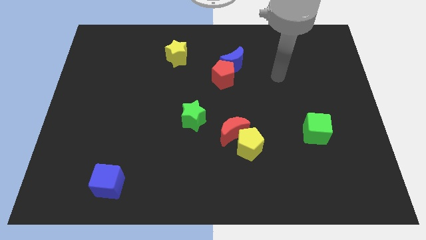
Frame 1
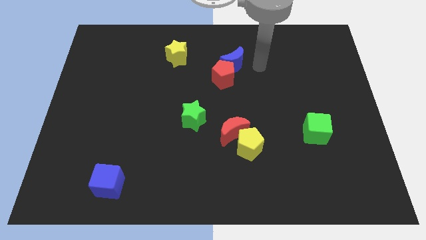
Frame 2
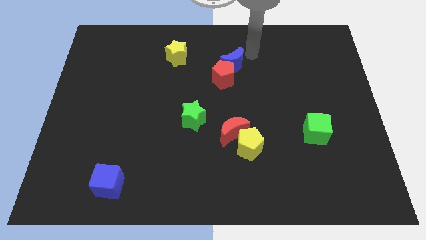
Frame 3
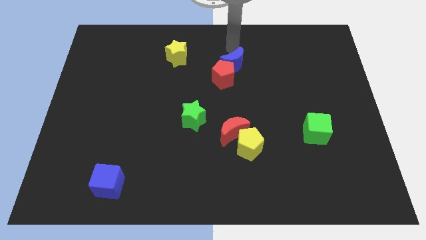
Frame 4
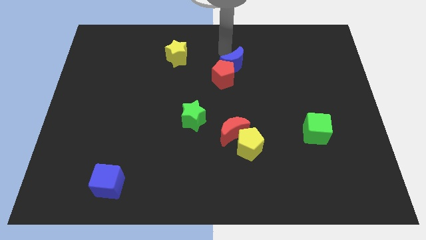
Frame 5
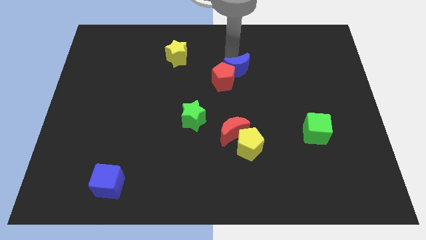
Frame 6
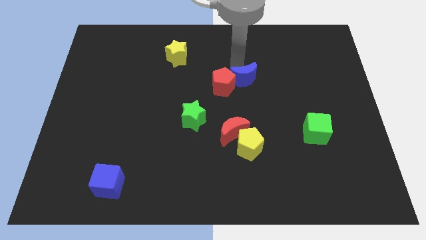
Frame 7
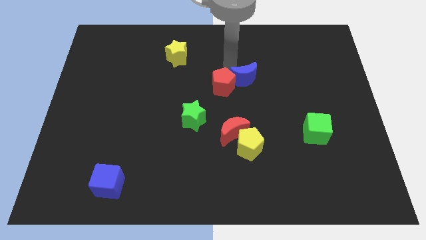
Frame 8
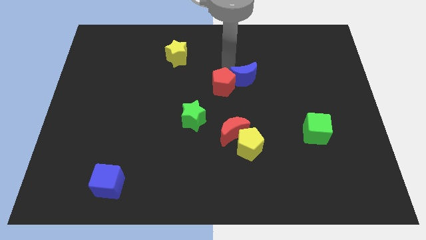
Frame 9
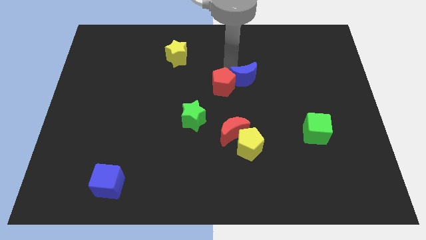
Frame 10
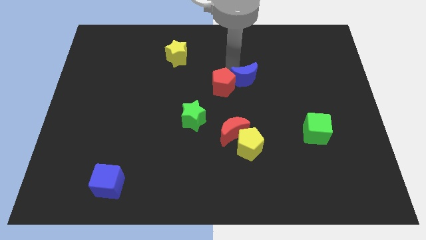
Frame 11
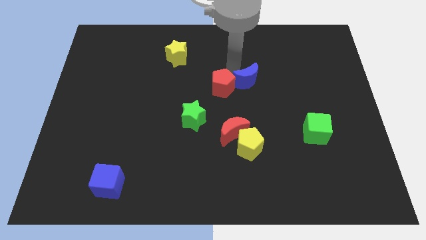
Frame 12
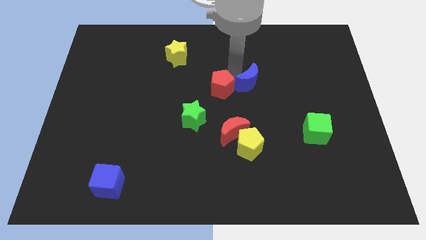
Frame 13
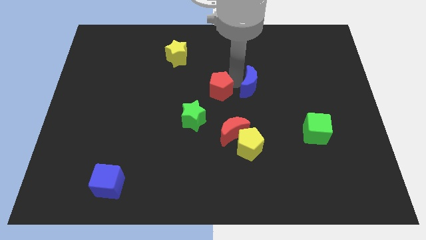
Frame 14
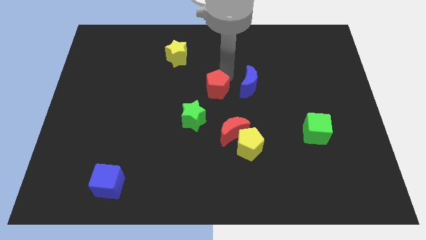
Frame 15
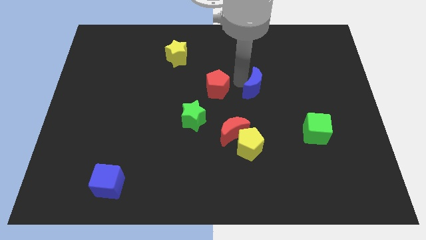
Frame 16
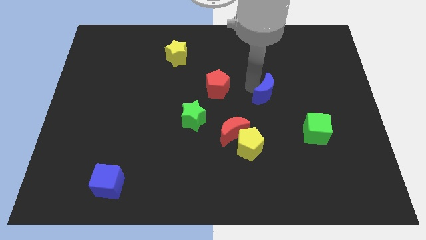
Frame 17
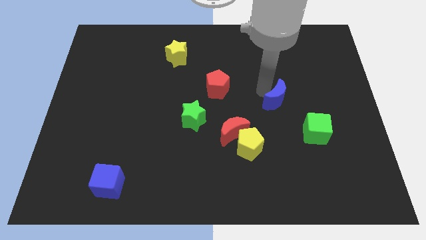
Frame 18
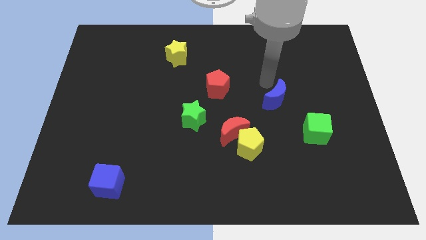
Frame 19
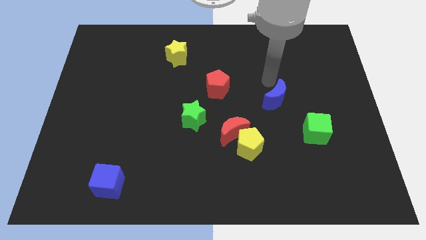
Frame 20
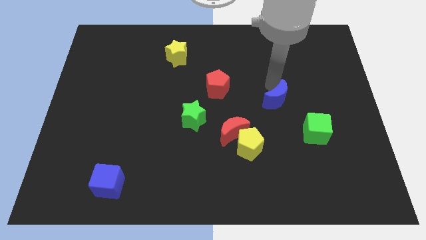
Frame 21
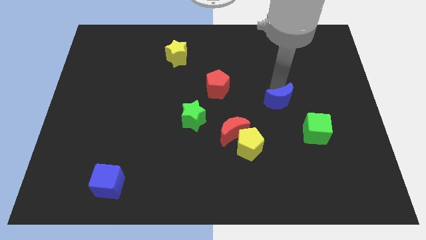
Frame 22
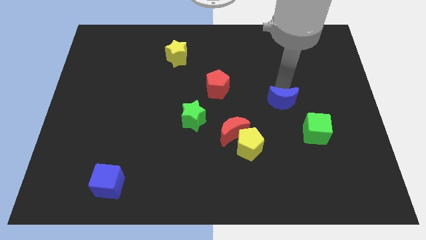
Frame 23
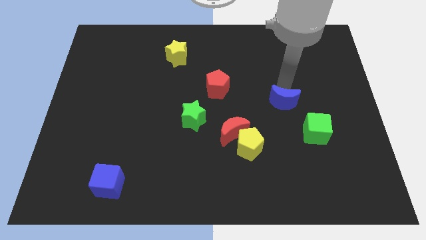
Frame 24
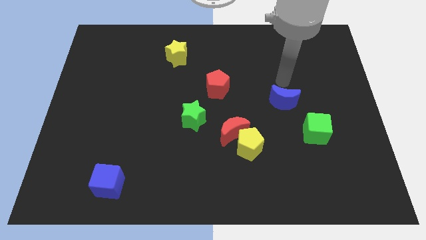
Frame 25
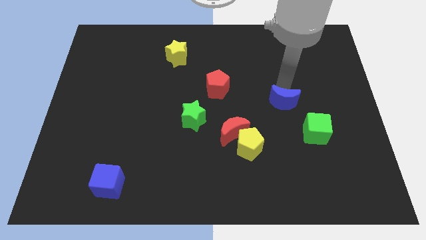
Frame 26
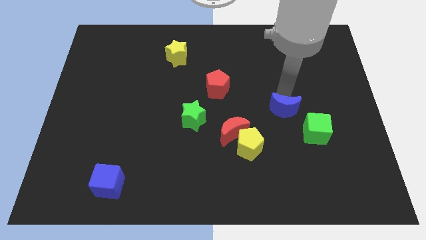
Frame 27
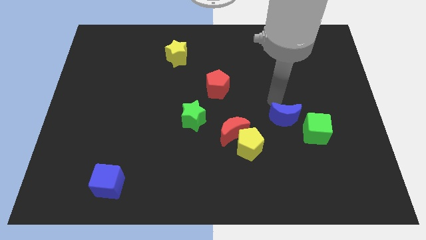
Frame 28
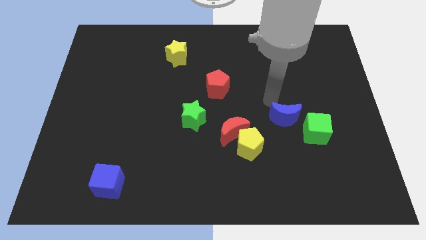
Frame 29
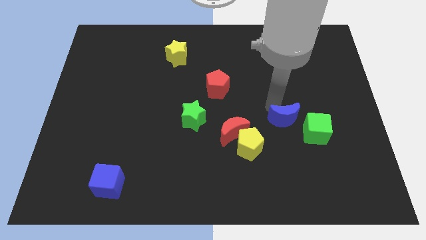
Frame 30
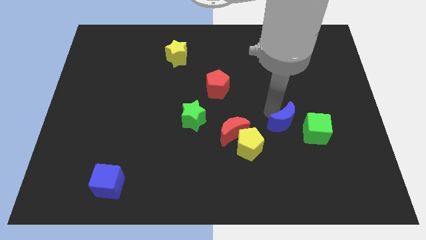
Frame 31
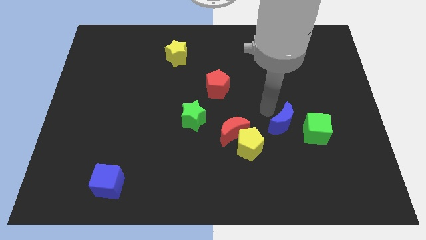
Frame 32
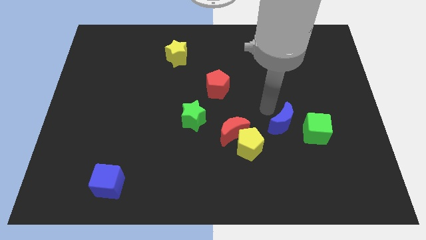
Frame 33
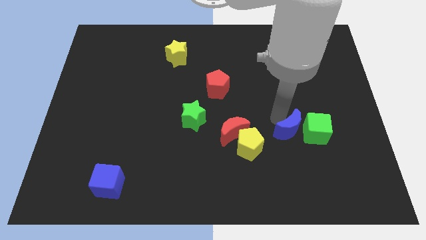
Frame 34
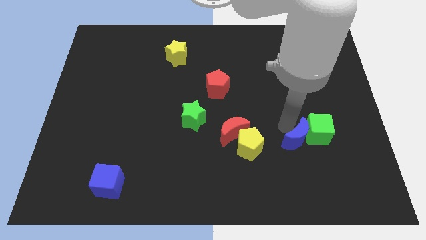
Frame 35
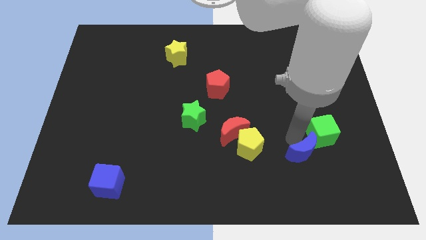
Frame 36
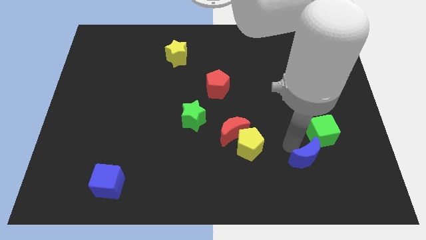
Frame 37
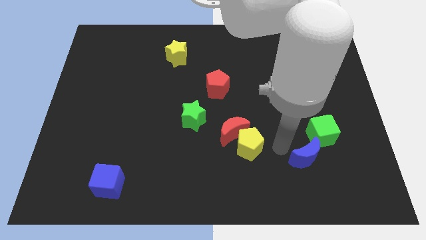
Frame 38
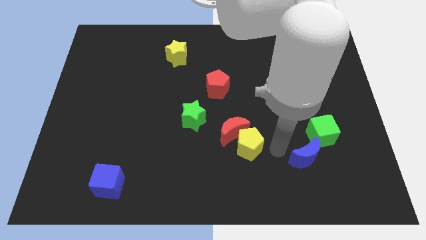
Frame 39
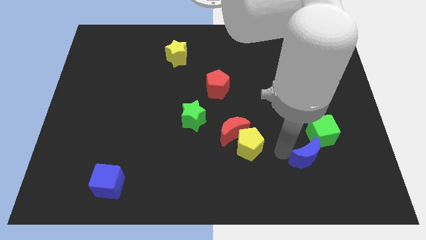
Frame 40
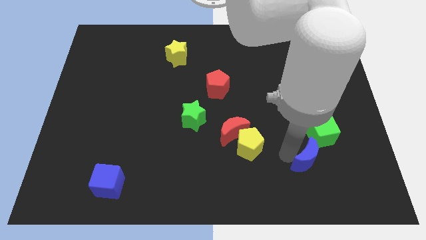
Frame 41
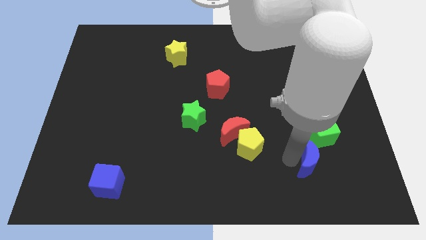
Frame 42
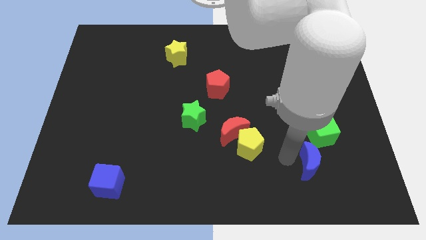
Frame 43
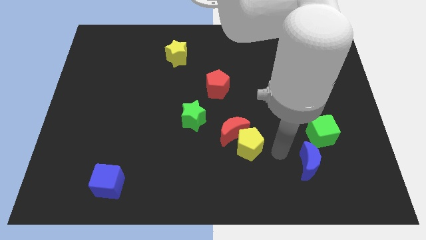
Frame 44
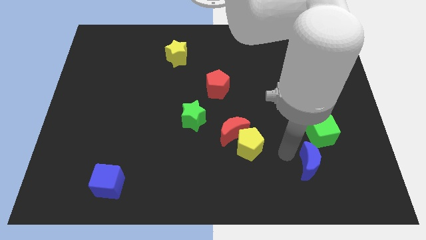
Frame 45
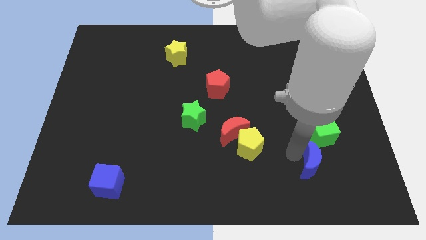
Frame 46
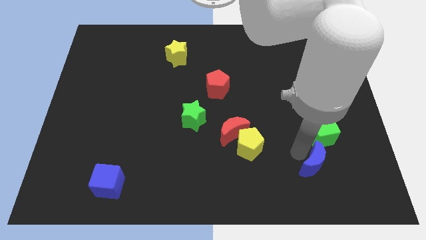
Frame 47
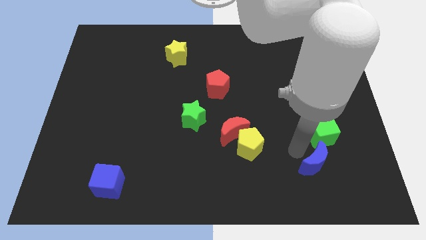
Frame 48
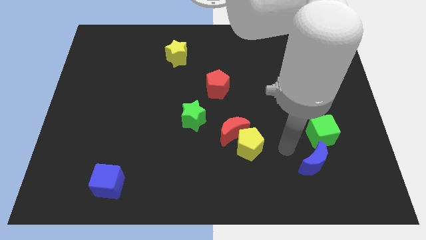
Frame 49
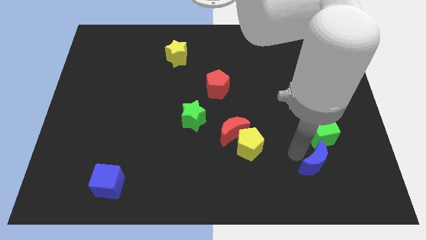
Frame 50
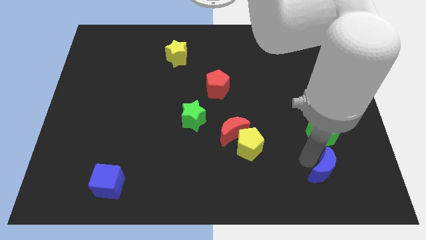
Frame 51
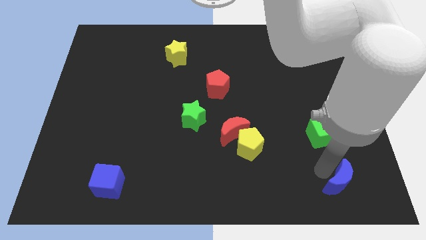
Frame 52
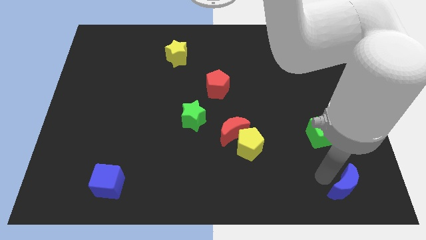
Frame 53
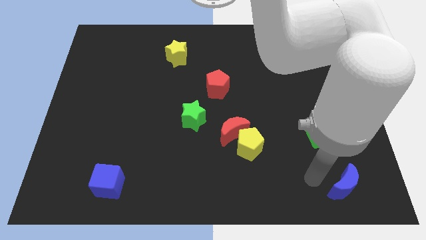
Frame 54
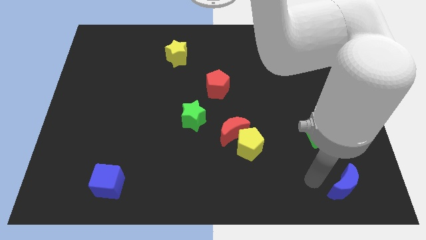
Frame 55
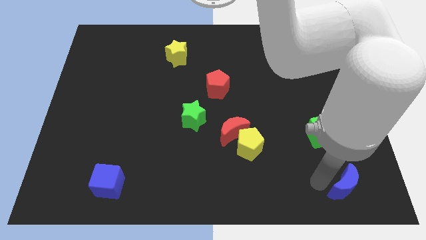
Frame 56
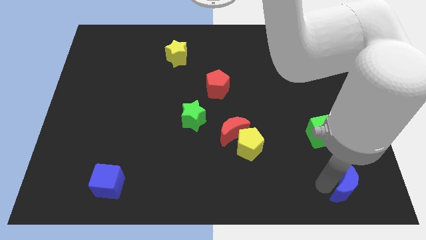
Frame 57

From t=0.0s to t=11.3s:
put the blue moon to the bottom right corner
